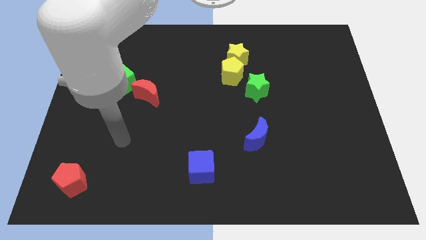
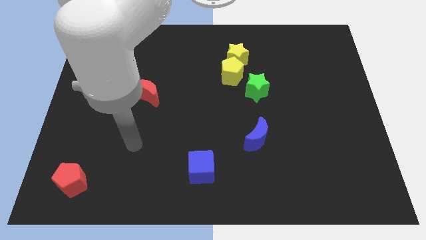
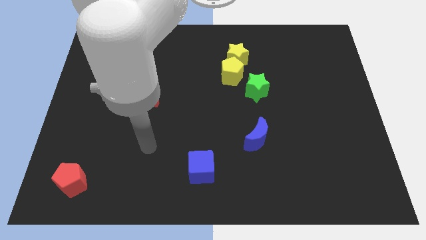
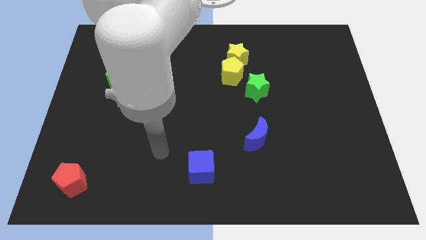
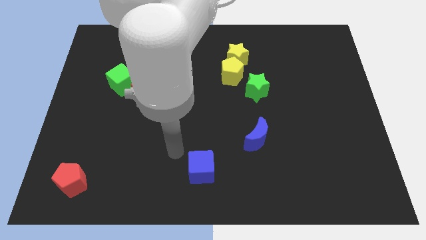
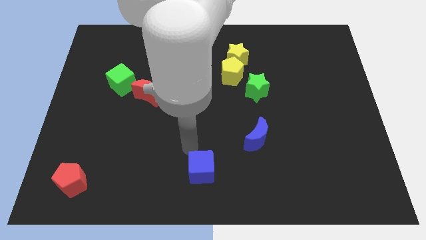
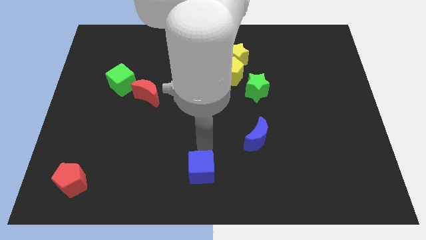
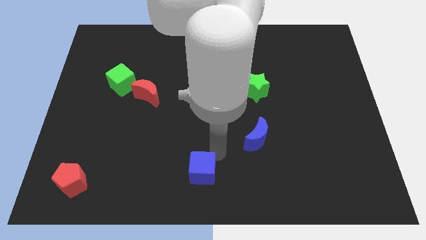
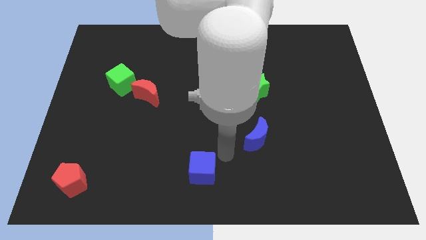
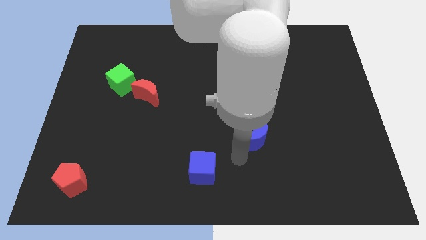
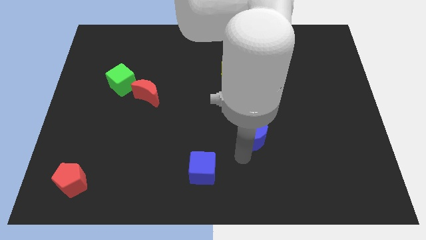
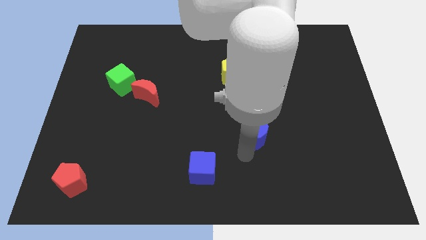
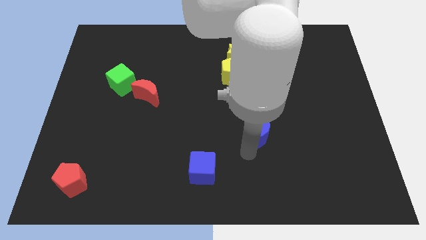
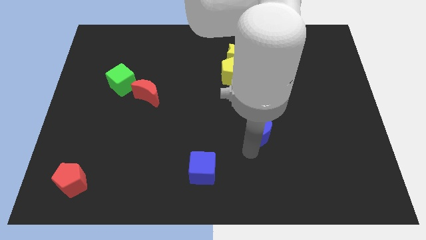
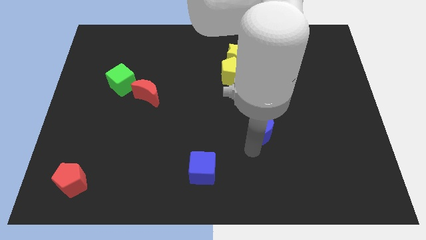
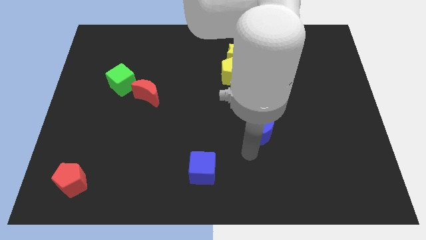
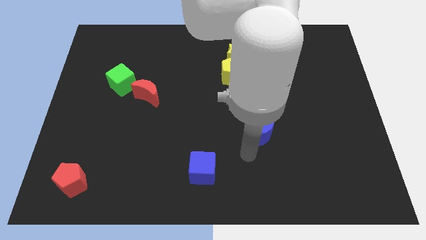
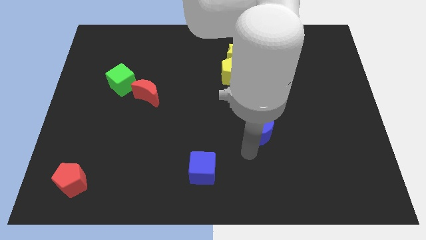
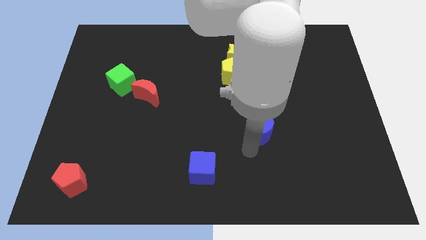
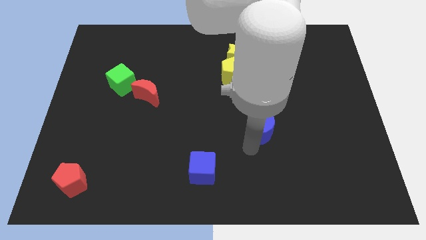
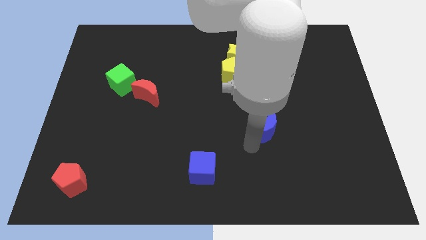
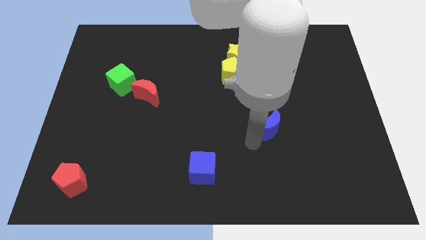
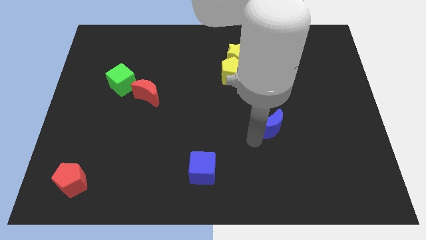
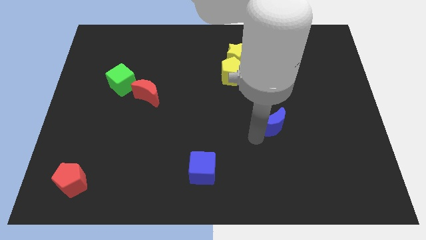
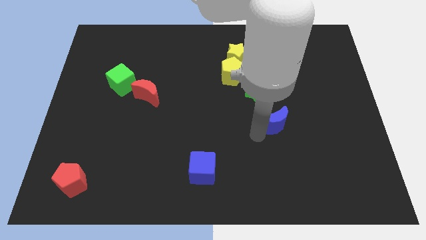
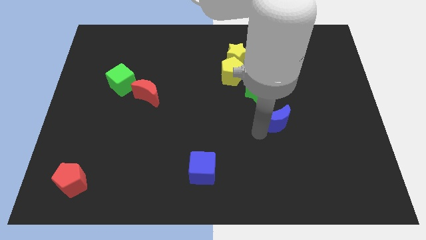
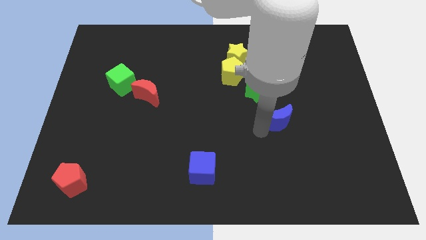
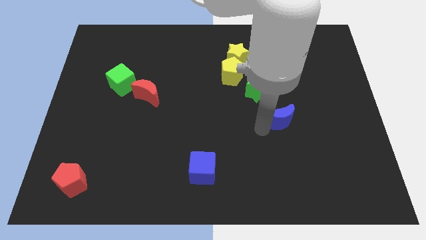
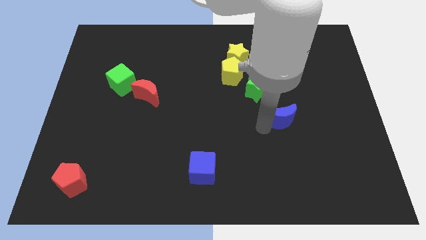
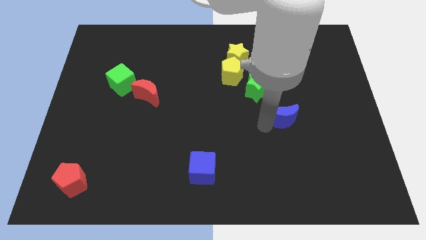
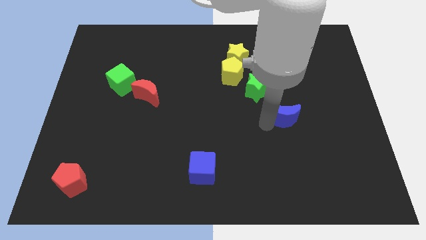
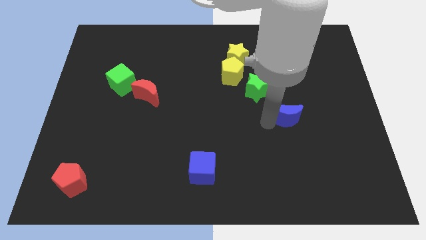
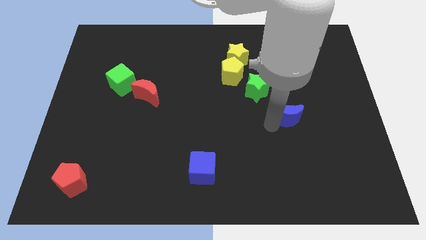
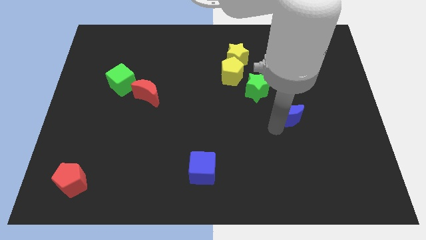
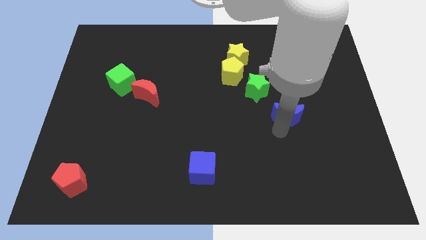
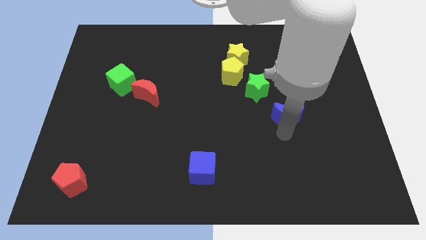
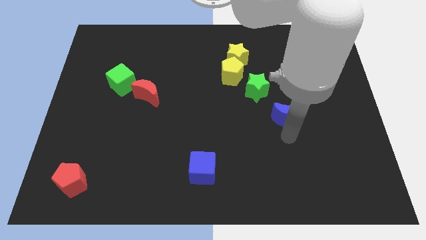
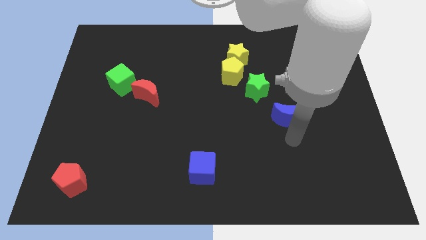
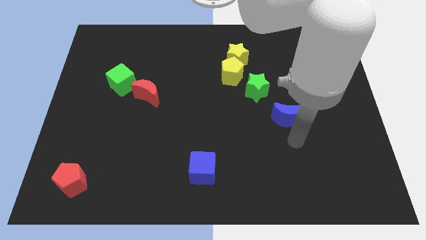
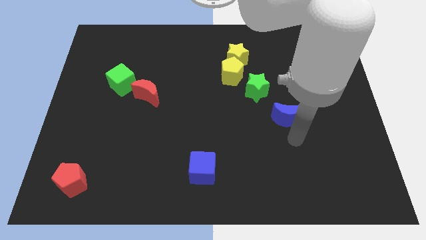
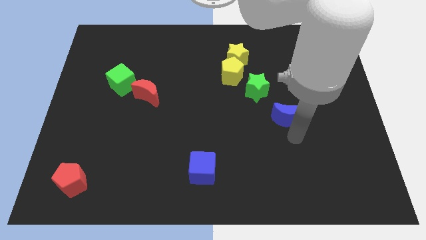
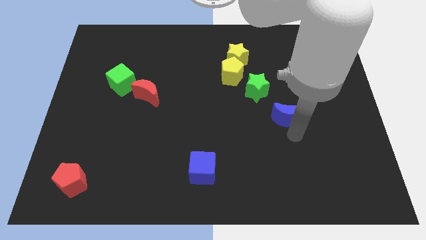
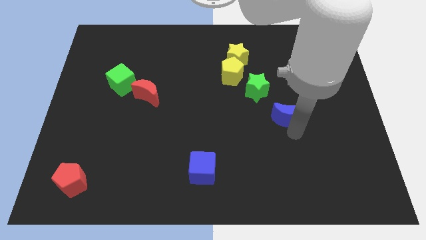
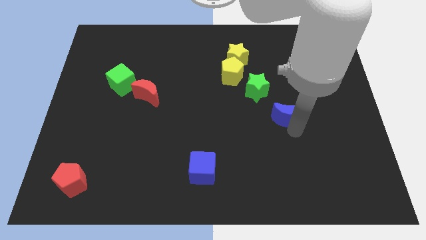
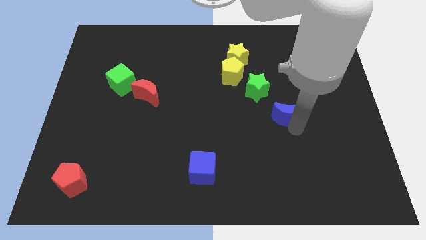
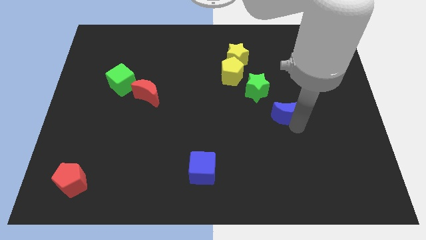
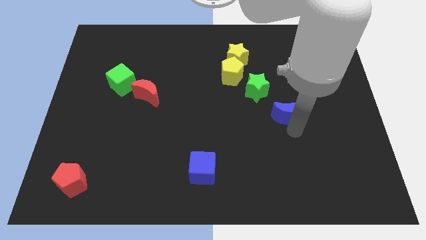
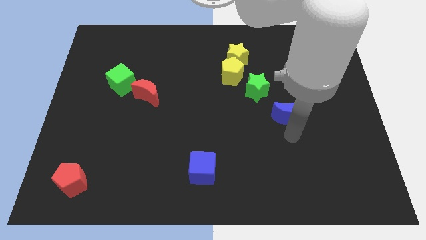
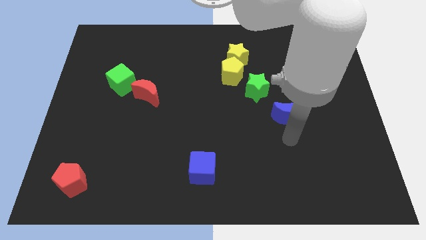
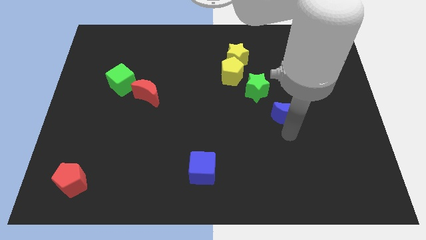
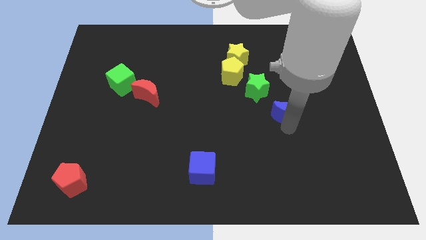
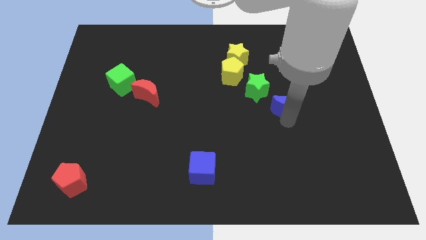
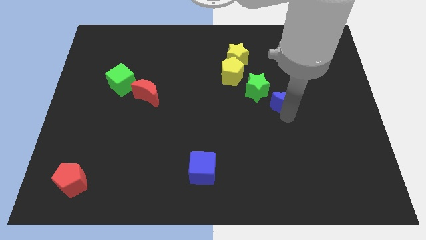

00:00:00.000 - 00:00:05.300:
push the blue moon a little upwards

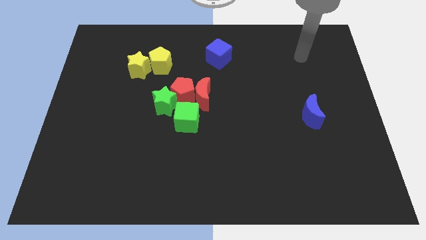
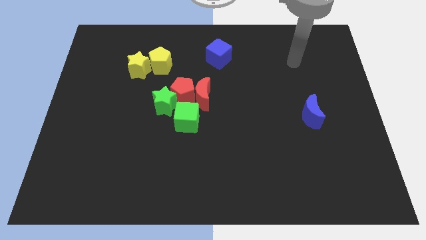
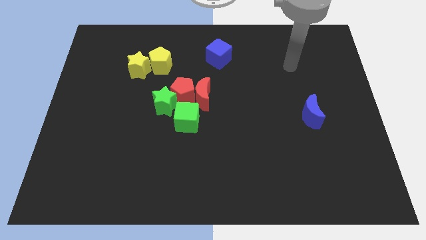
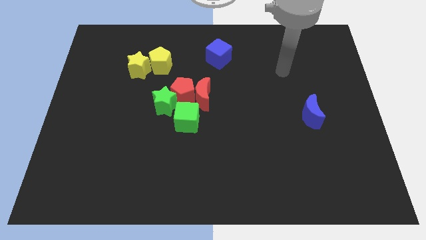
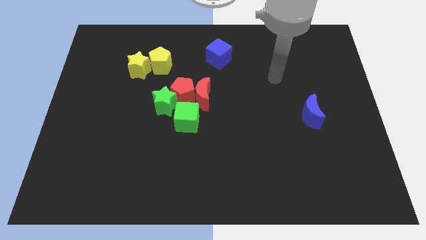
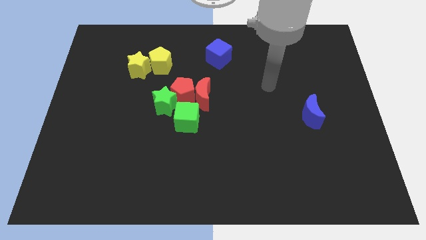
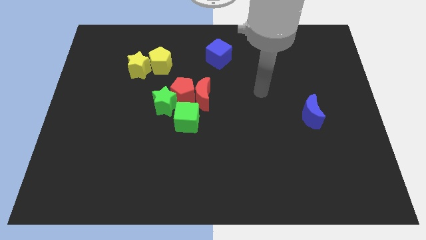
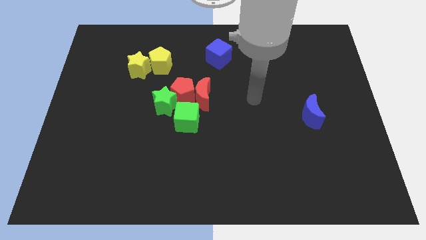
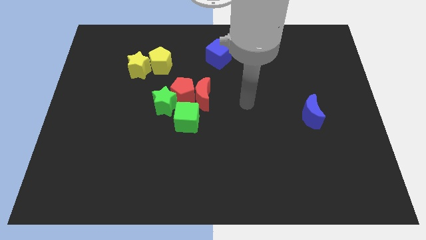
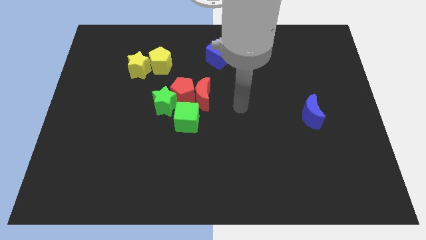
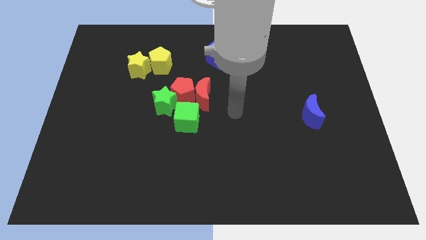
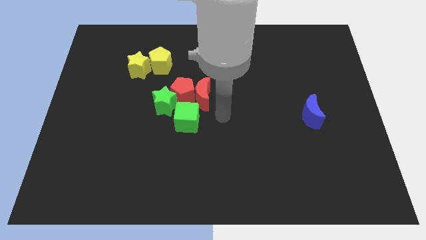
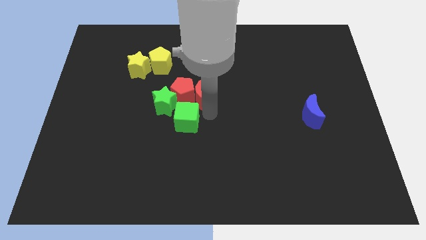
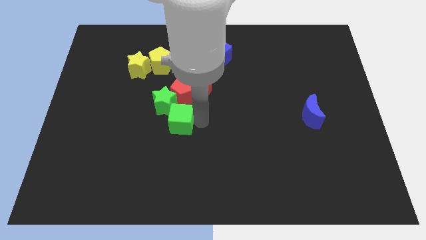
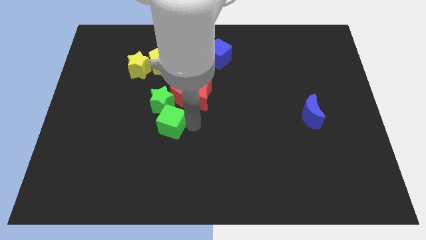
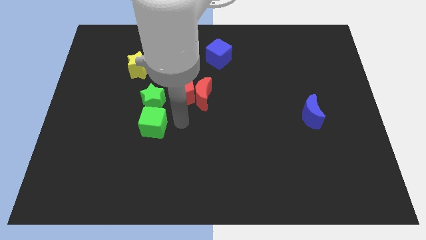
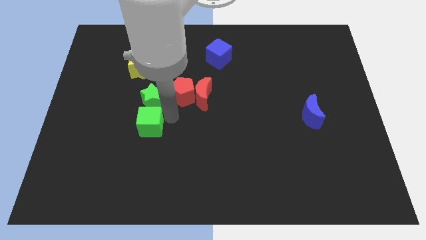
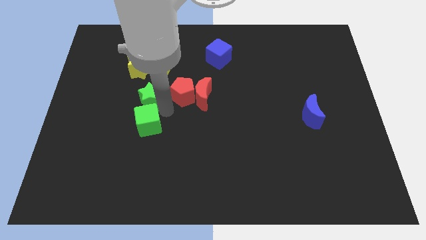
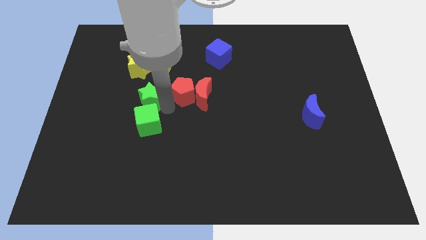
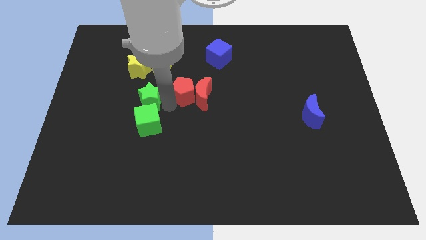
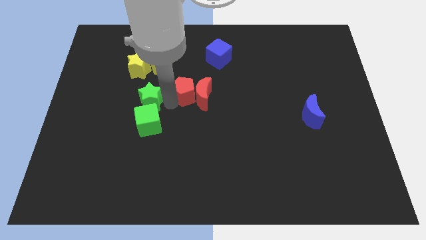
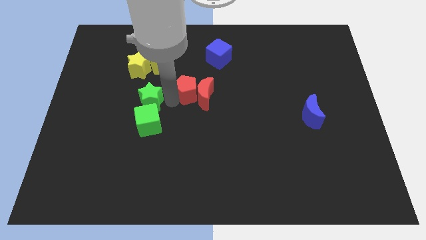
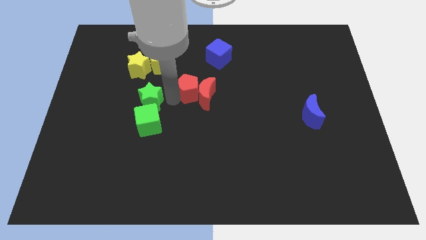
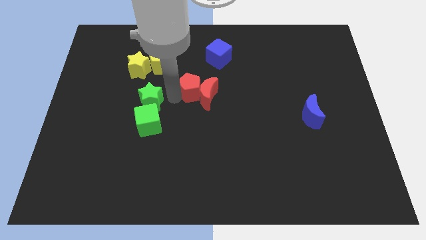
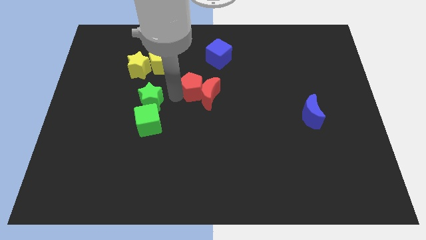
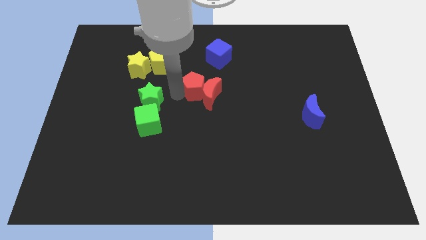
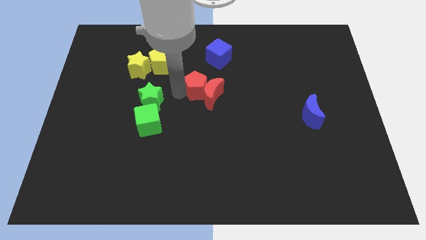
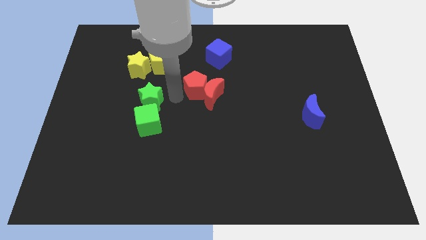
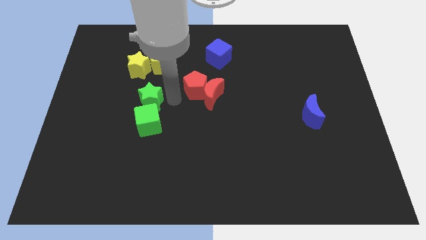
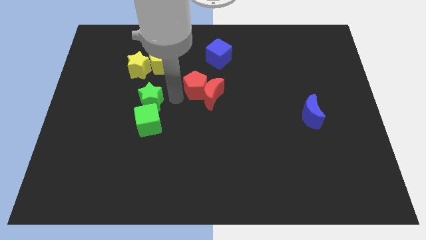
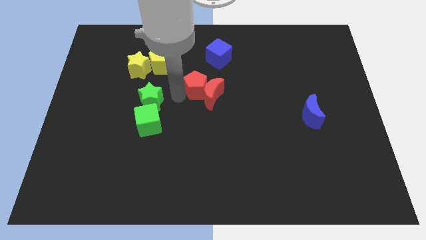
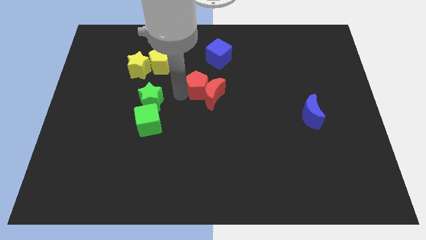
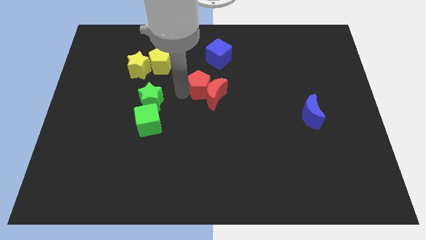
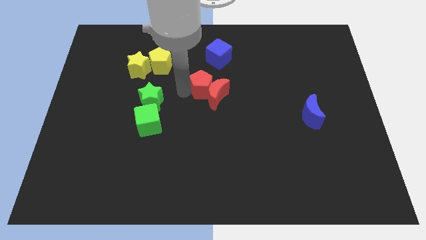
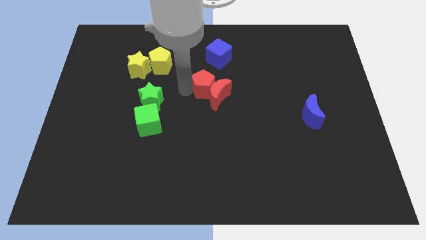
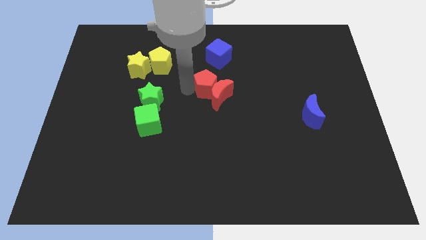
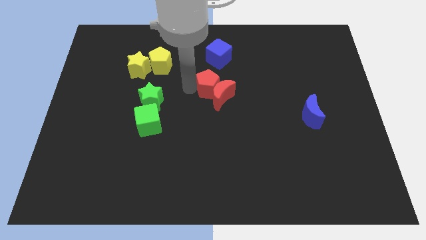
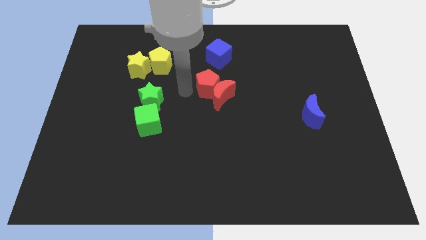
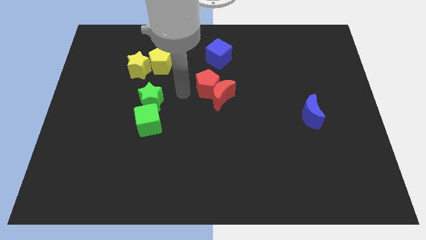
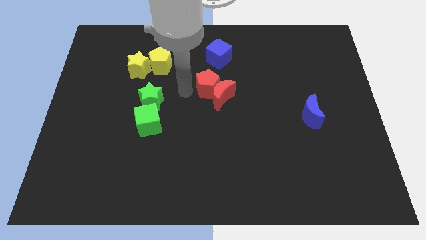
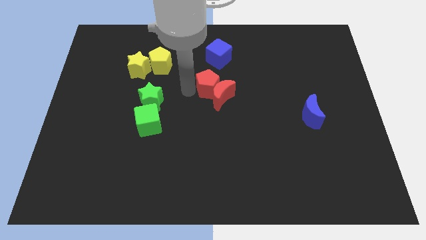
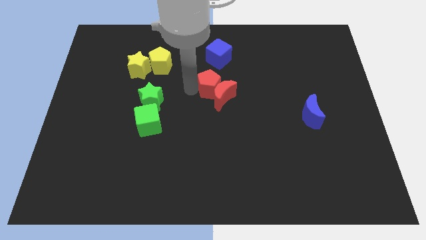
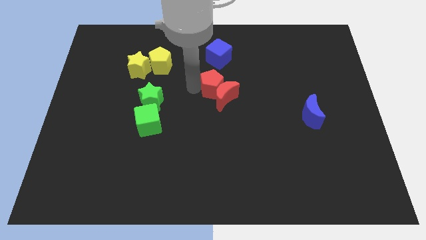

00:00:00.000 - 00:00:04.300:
move the red pentagon a little right
